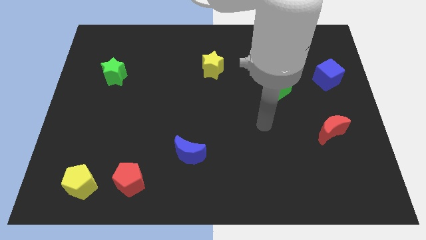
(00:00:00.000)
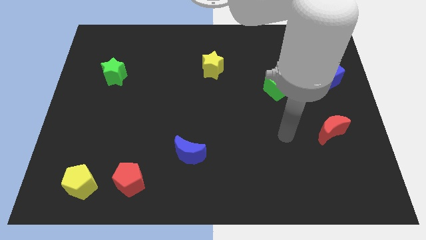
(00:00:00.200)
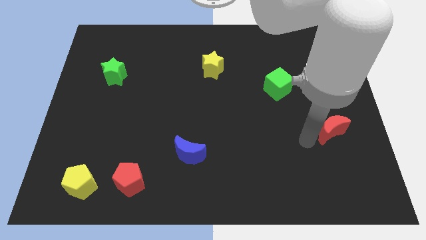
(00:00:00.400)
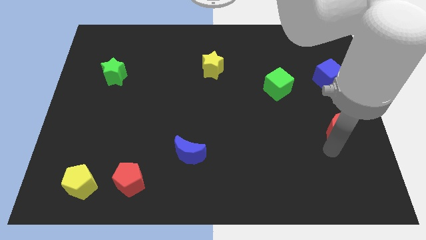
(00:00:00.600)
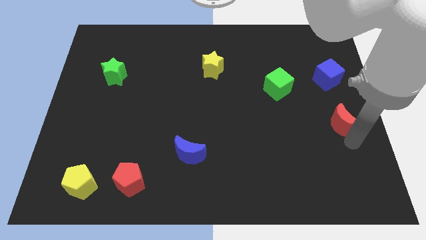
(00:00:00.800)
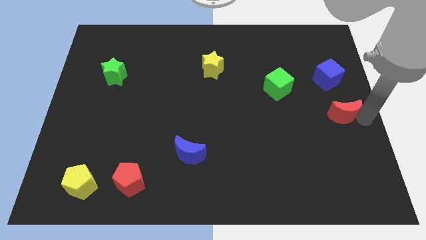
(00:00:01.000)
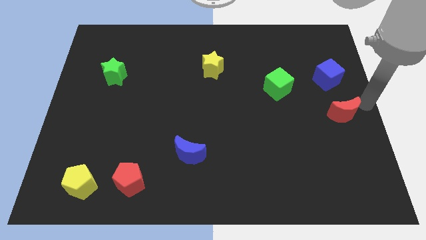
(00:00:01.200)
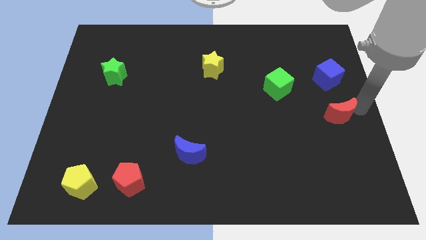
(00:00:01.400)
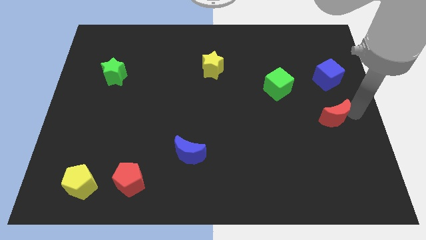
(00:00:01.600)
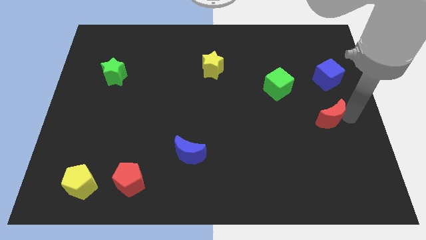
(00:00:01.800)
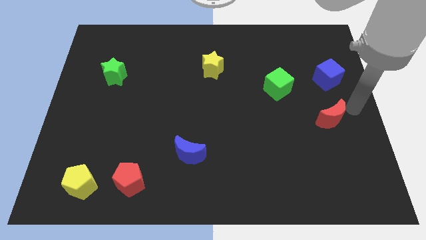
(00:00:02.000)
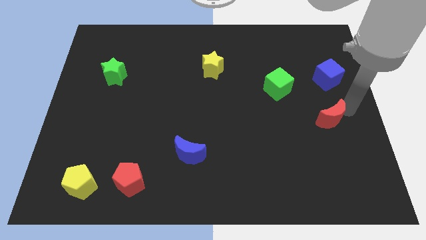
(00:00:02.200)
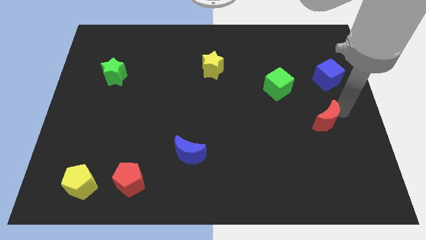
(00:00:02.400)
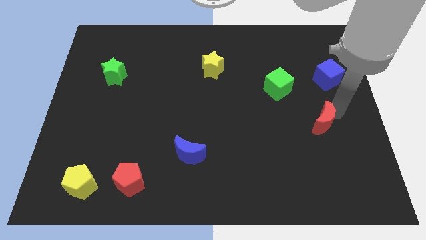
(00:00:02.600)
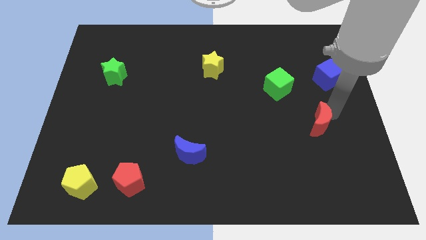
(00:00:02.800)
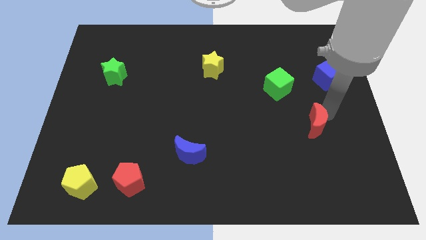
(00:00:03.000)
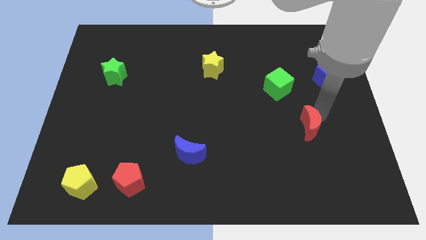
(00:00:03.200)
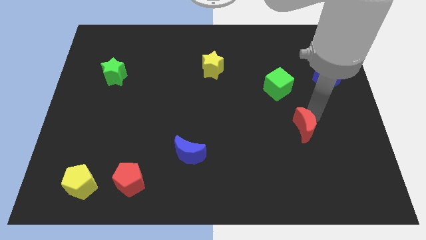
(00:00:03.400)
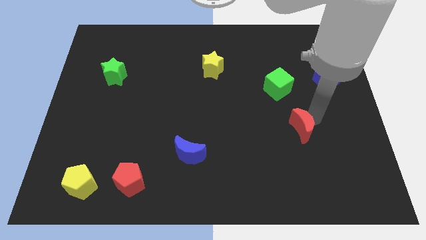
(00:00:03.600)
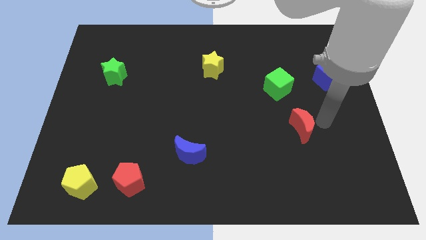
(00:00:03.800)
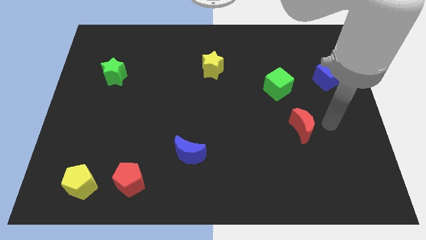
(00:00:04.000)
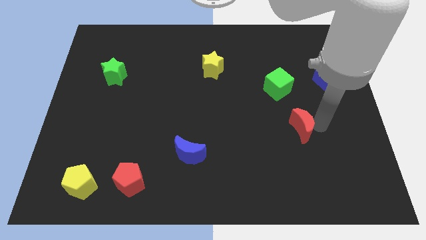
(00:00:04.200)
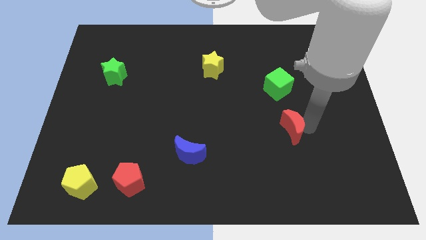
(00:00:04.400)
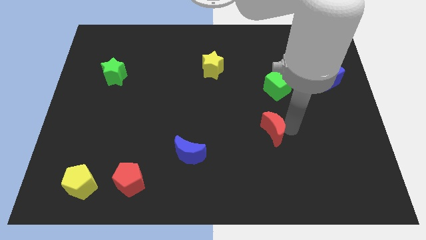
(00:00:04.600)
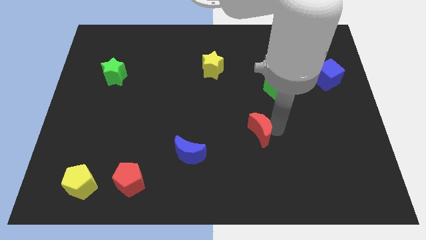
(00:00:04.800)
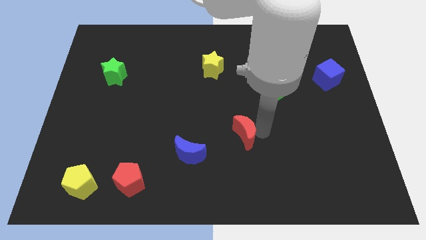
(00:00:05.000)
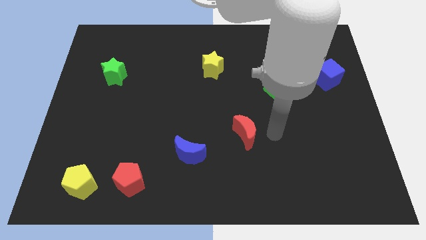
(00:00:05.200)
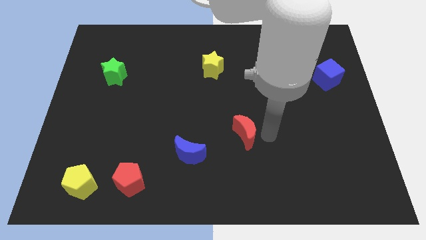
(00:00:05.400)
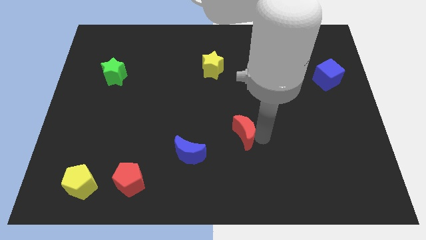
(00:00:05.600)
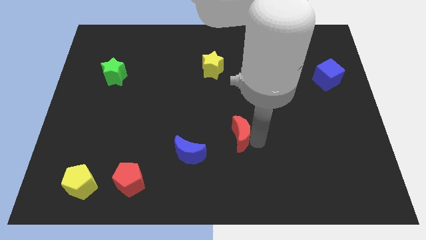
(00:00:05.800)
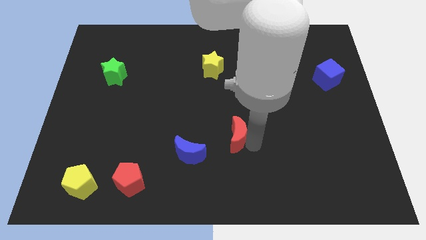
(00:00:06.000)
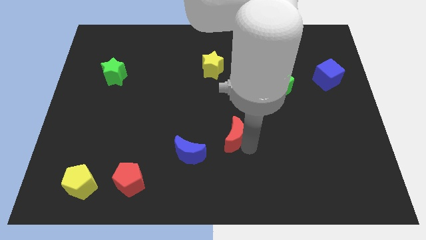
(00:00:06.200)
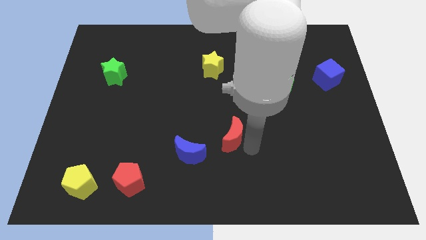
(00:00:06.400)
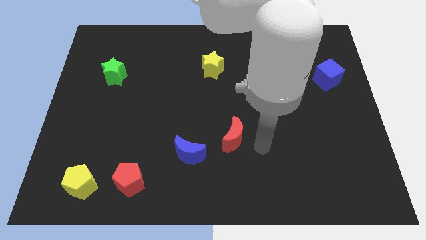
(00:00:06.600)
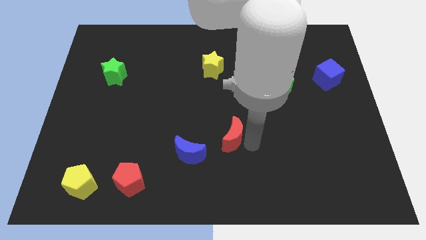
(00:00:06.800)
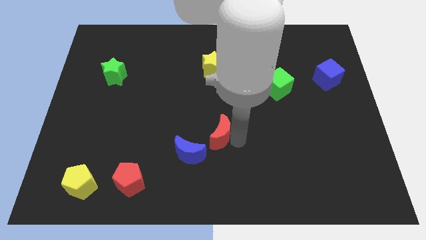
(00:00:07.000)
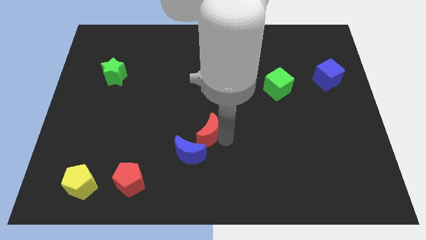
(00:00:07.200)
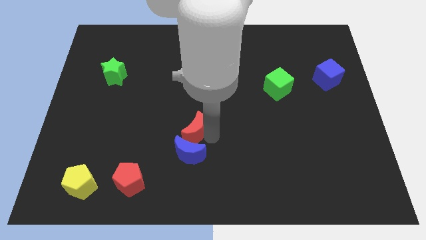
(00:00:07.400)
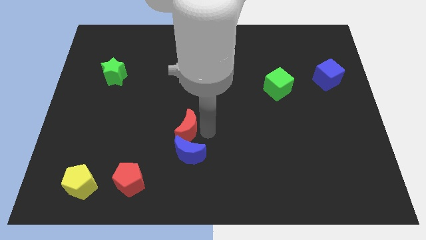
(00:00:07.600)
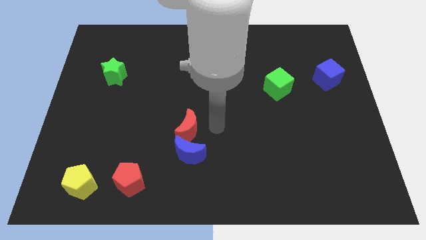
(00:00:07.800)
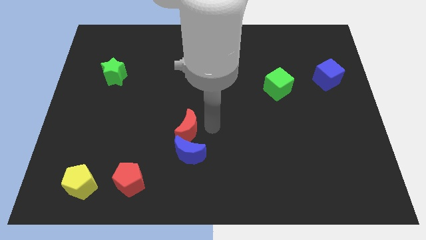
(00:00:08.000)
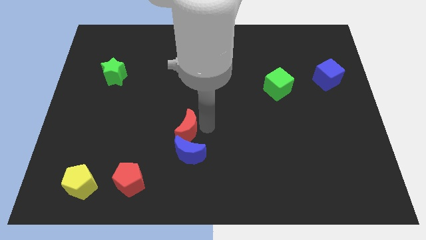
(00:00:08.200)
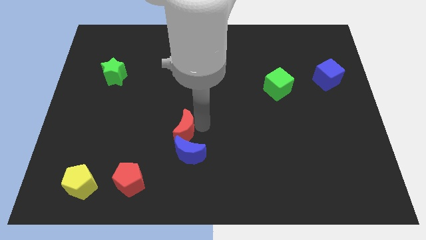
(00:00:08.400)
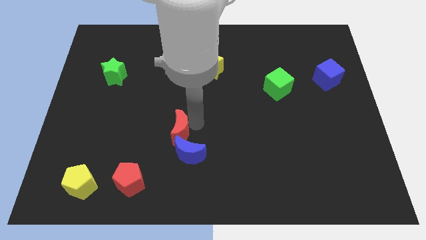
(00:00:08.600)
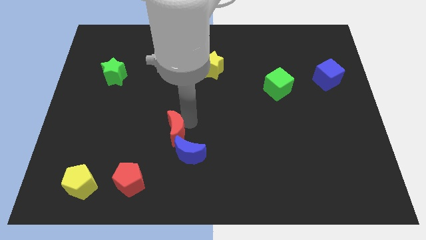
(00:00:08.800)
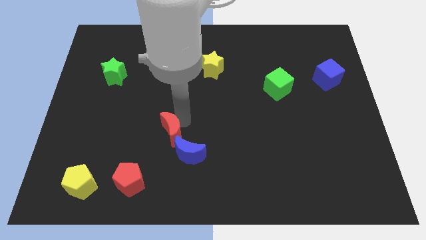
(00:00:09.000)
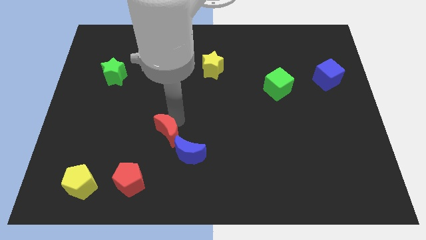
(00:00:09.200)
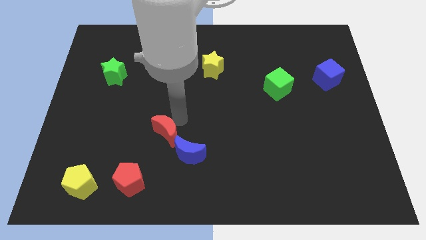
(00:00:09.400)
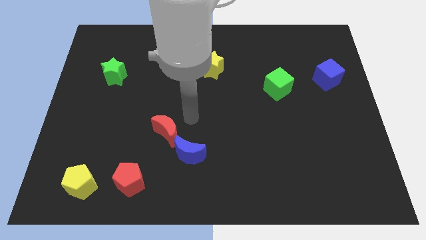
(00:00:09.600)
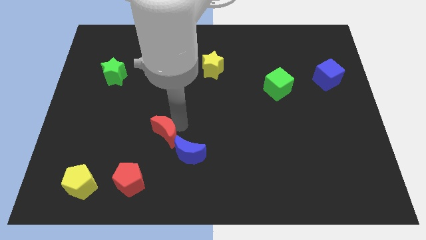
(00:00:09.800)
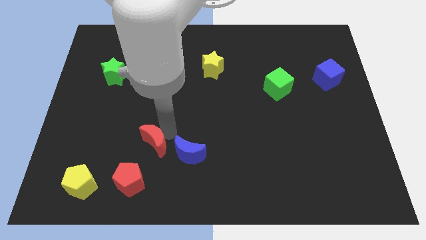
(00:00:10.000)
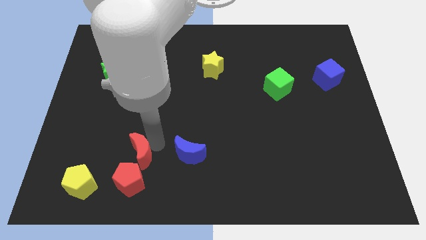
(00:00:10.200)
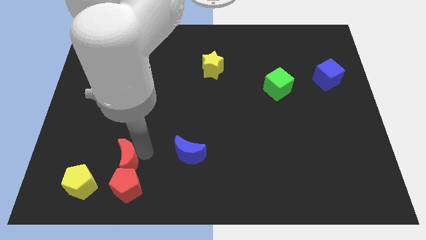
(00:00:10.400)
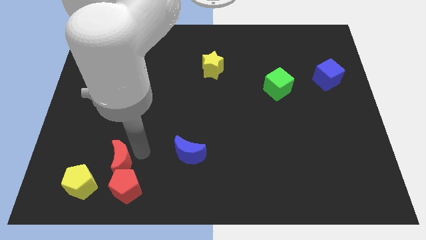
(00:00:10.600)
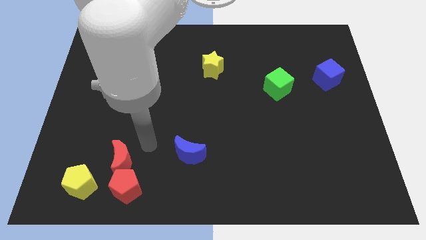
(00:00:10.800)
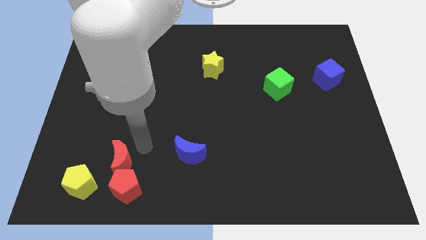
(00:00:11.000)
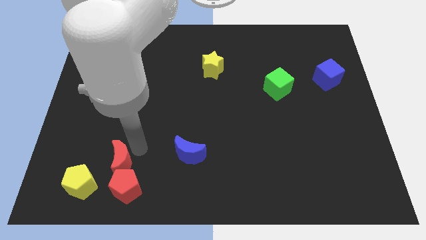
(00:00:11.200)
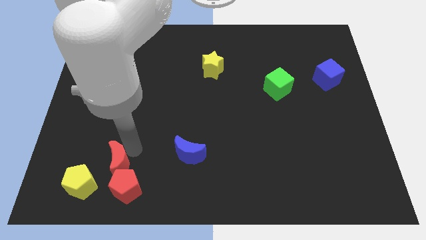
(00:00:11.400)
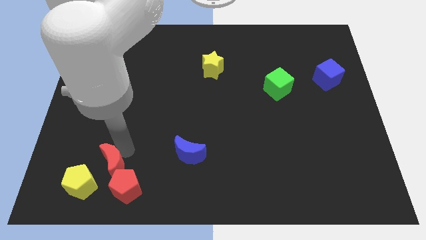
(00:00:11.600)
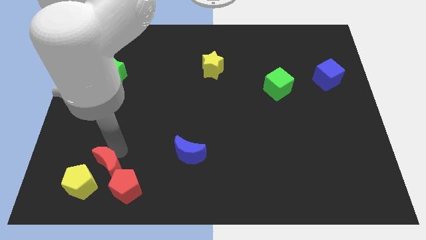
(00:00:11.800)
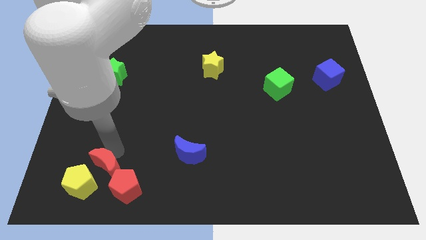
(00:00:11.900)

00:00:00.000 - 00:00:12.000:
move the red moon towards the yellow pentagon

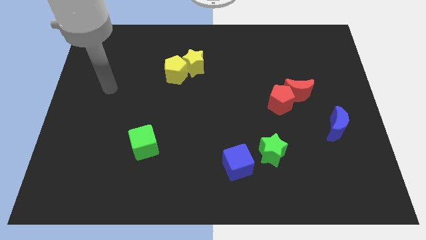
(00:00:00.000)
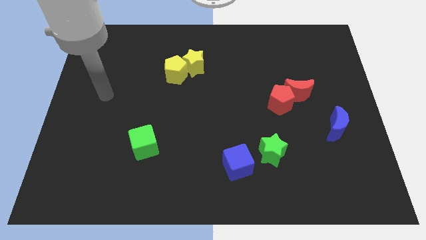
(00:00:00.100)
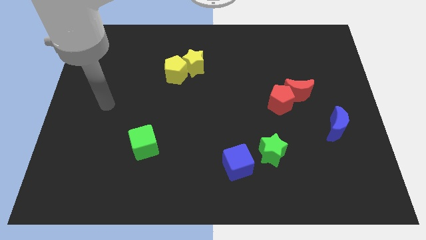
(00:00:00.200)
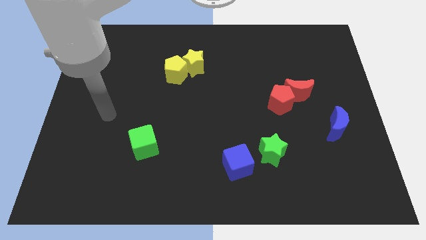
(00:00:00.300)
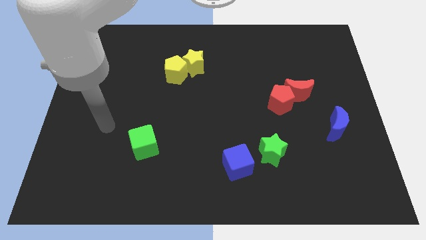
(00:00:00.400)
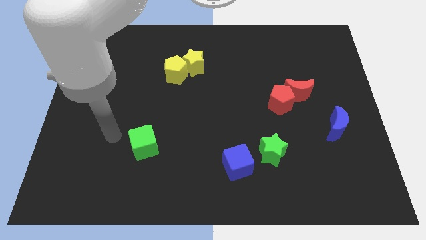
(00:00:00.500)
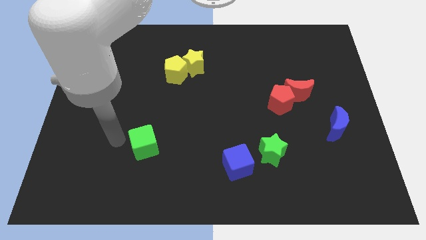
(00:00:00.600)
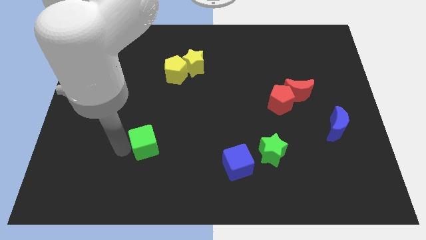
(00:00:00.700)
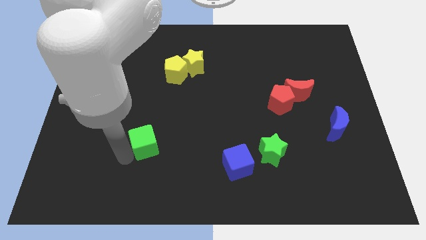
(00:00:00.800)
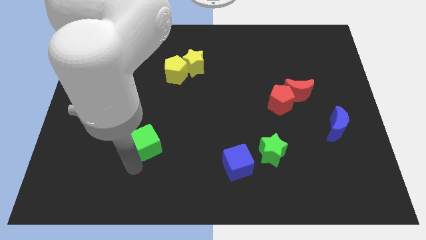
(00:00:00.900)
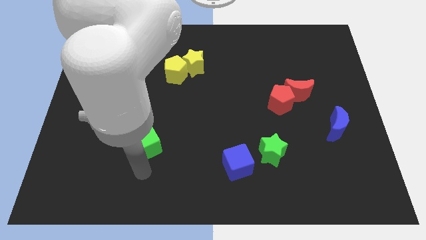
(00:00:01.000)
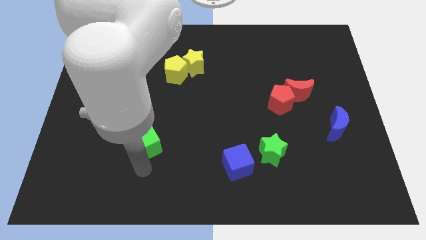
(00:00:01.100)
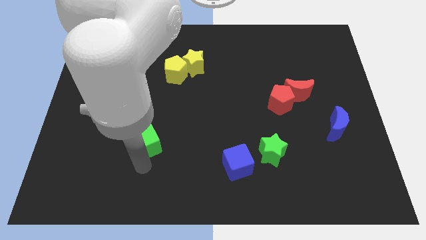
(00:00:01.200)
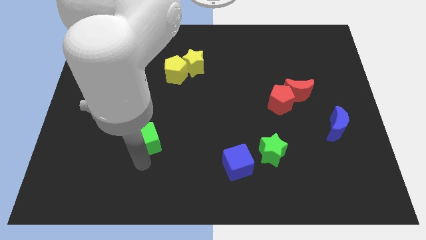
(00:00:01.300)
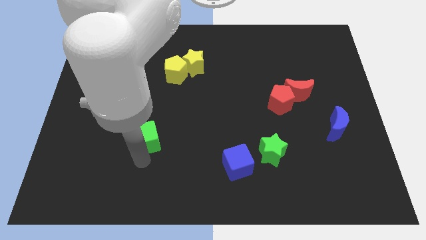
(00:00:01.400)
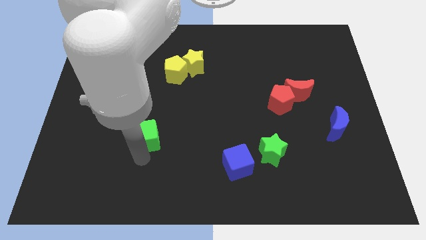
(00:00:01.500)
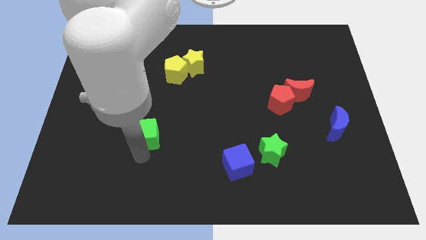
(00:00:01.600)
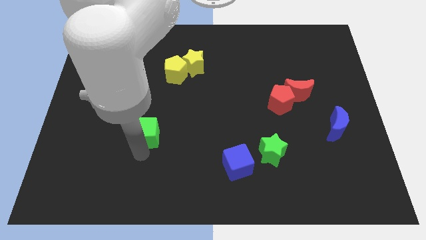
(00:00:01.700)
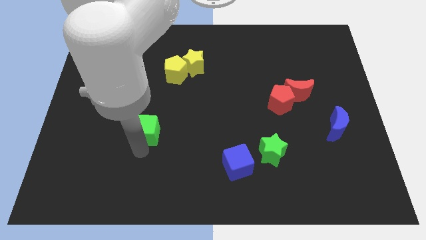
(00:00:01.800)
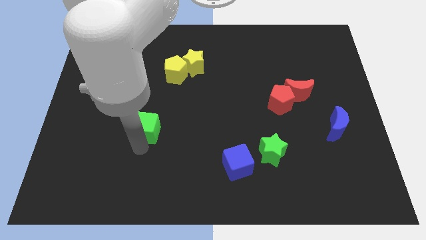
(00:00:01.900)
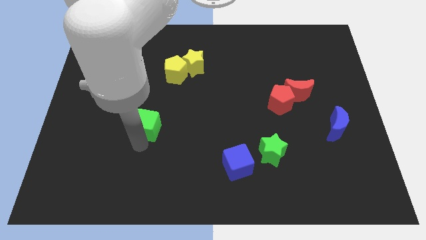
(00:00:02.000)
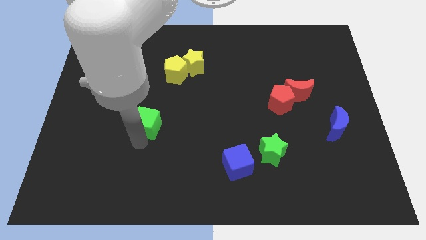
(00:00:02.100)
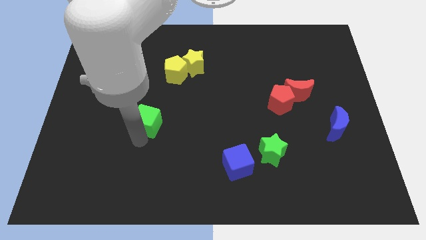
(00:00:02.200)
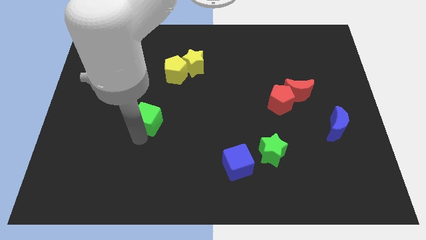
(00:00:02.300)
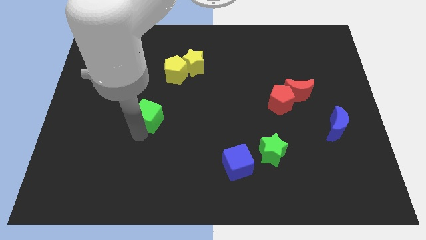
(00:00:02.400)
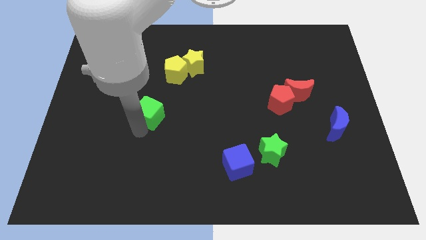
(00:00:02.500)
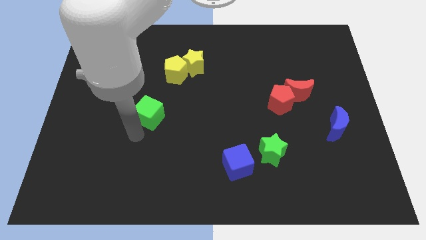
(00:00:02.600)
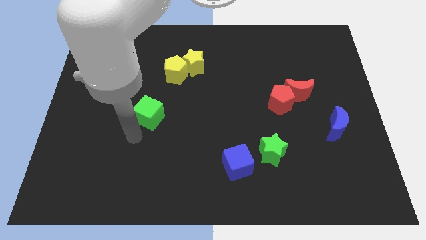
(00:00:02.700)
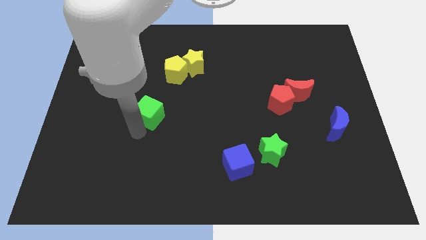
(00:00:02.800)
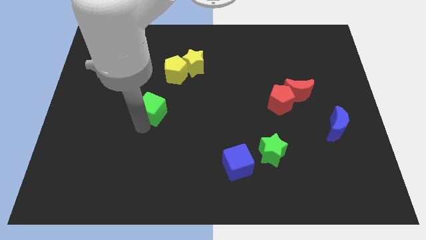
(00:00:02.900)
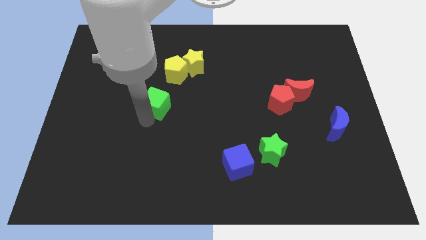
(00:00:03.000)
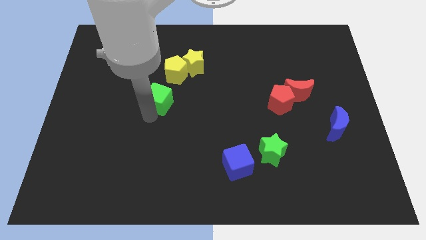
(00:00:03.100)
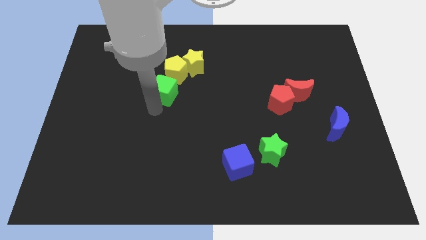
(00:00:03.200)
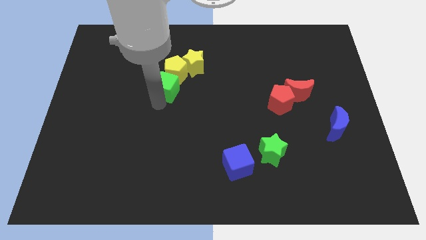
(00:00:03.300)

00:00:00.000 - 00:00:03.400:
put the green cube towards the yellow pentagon
